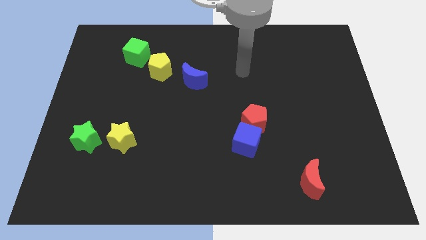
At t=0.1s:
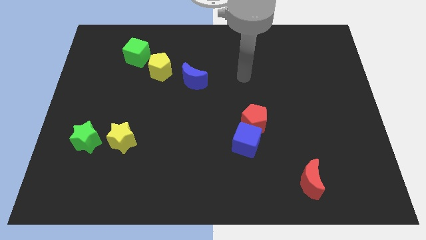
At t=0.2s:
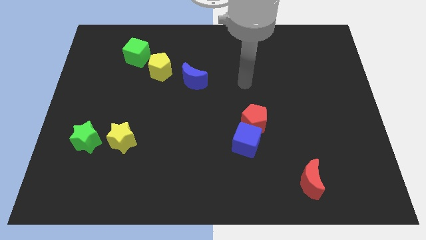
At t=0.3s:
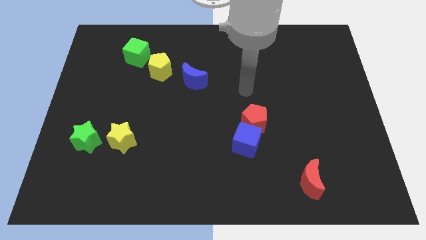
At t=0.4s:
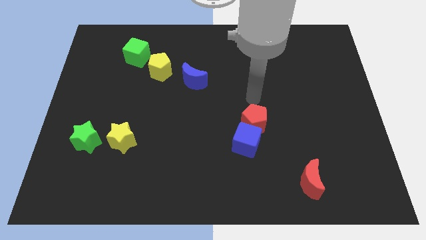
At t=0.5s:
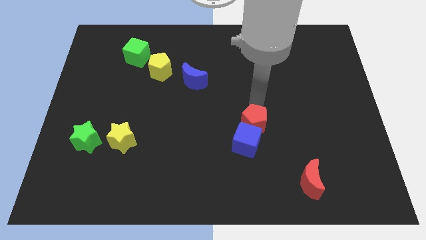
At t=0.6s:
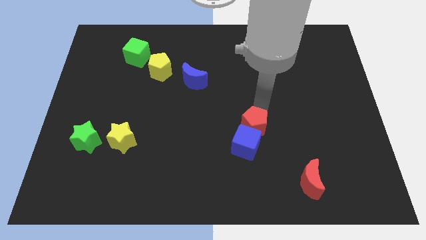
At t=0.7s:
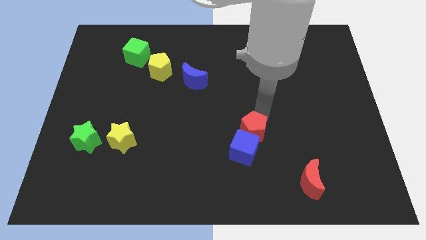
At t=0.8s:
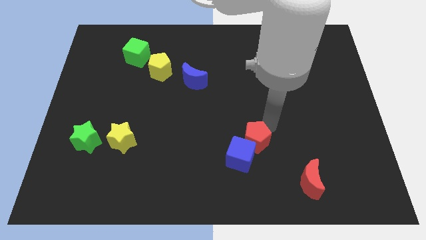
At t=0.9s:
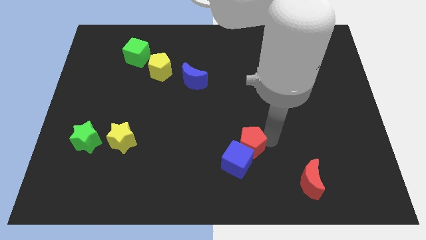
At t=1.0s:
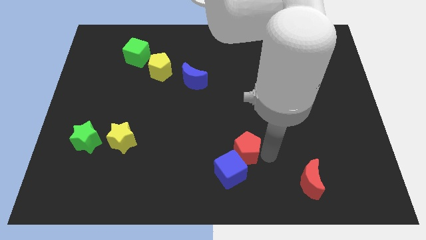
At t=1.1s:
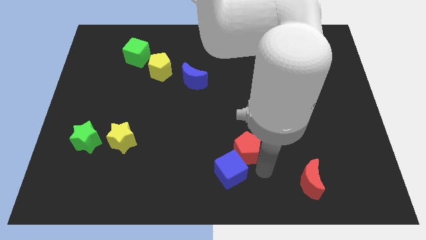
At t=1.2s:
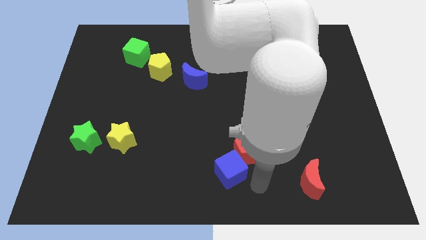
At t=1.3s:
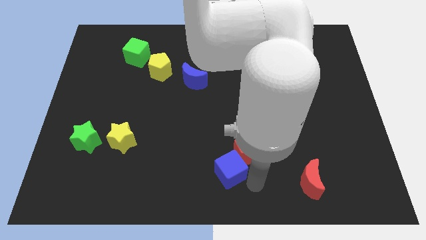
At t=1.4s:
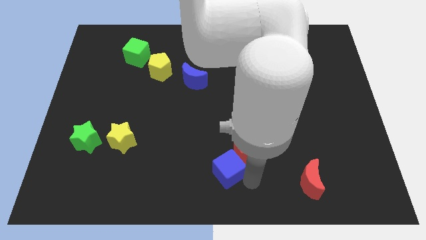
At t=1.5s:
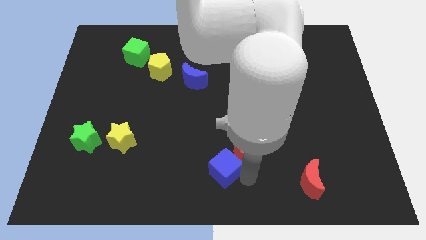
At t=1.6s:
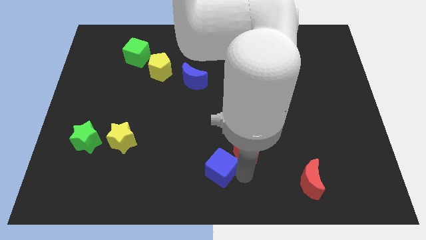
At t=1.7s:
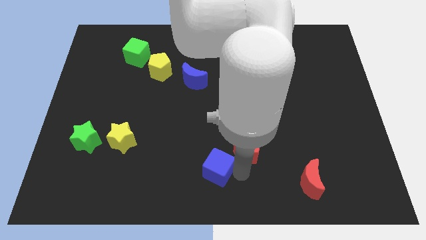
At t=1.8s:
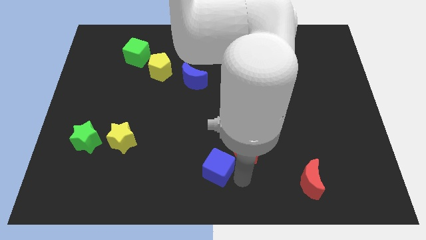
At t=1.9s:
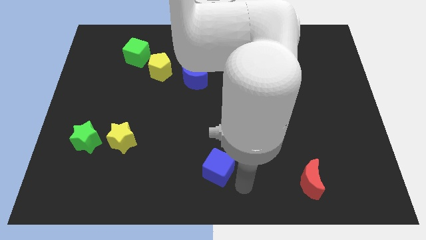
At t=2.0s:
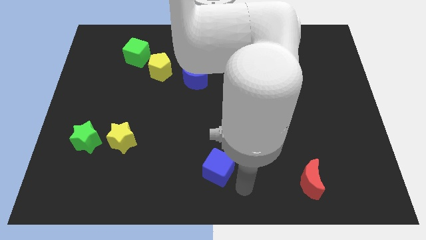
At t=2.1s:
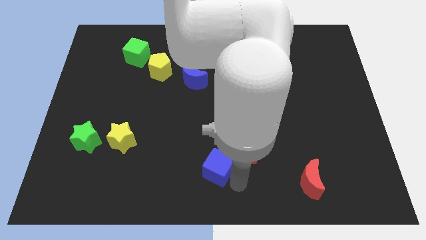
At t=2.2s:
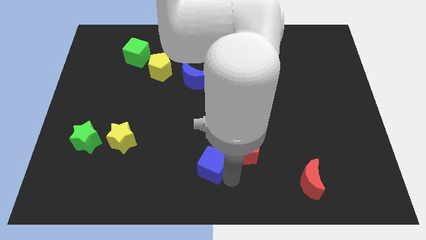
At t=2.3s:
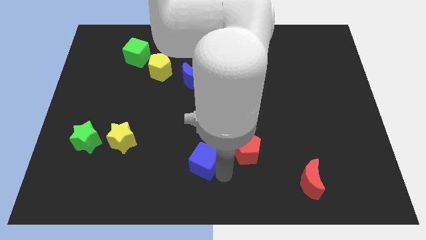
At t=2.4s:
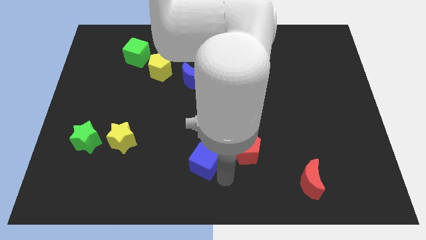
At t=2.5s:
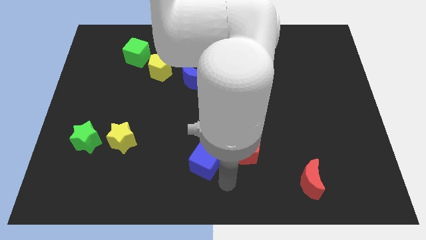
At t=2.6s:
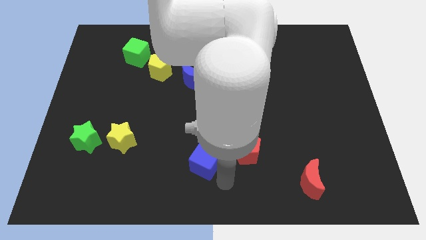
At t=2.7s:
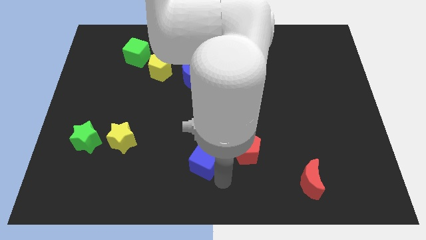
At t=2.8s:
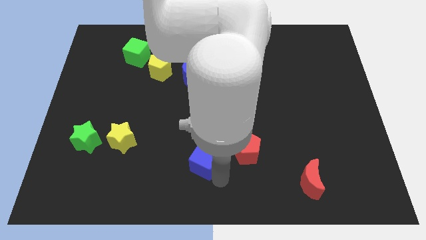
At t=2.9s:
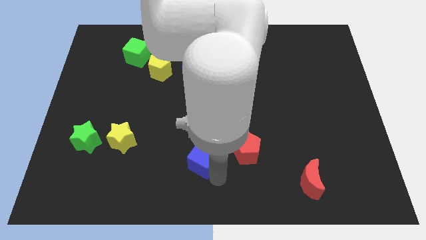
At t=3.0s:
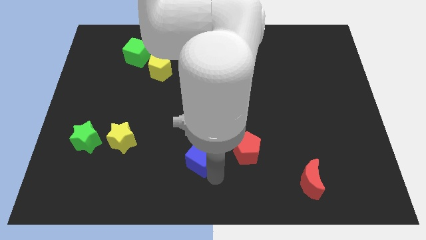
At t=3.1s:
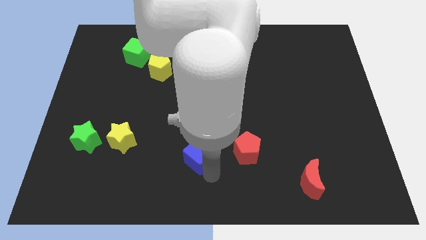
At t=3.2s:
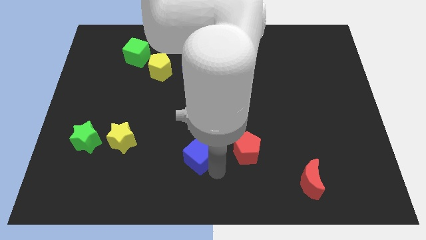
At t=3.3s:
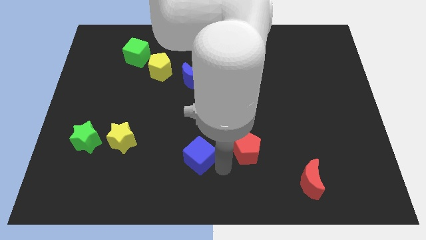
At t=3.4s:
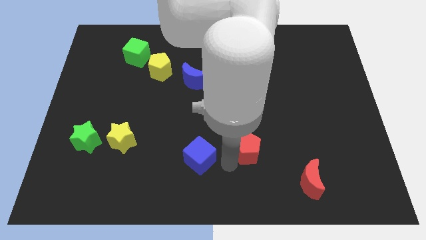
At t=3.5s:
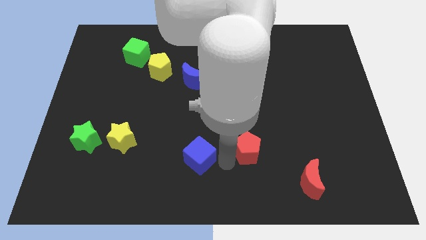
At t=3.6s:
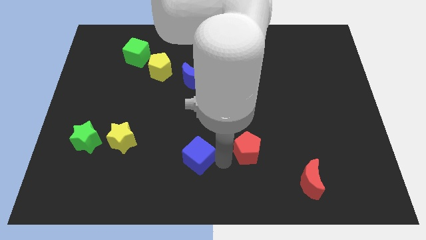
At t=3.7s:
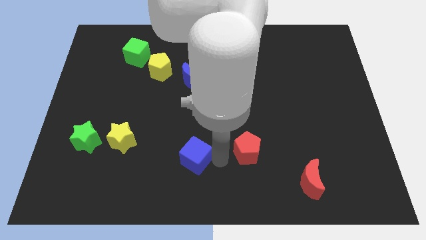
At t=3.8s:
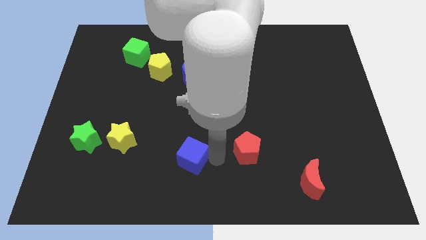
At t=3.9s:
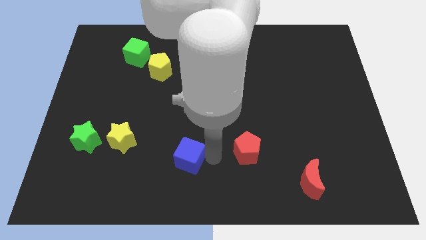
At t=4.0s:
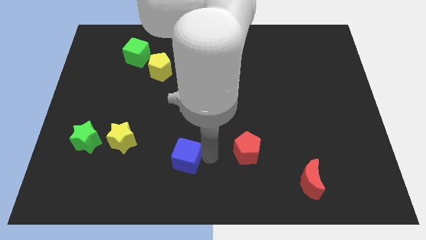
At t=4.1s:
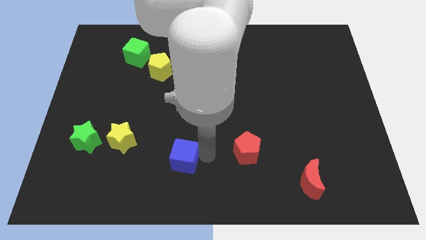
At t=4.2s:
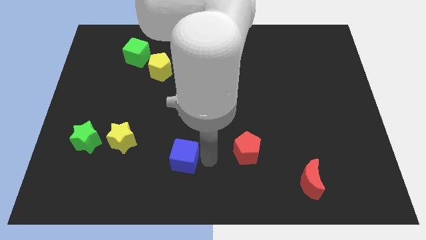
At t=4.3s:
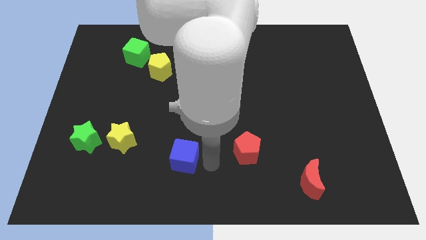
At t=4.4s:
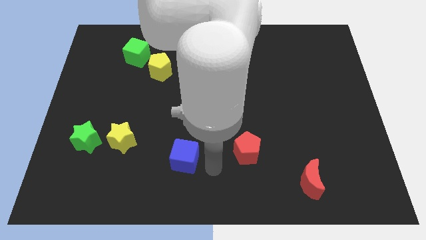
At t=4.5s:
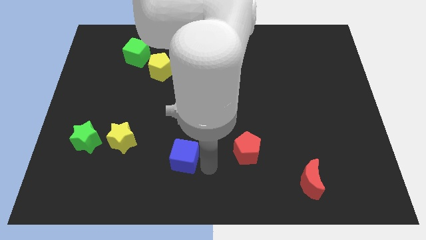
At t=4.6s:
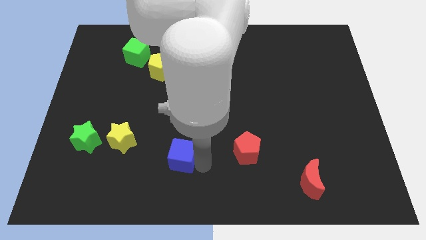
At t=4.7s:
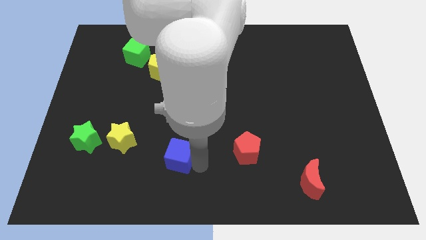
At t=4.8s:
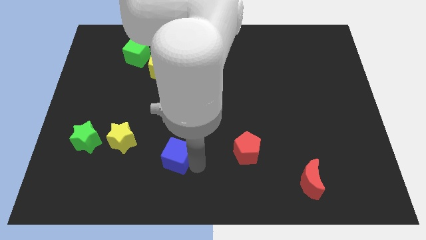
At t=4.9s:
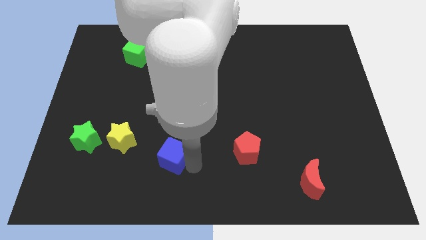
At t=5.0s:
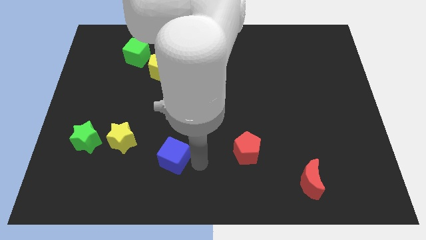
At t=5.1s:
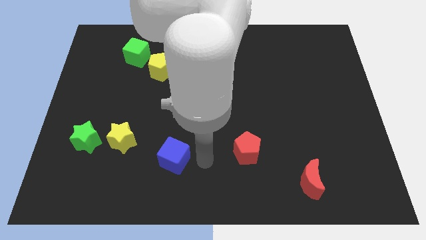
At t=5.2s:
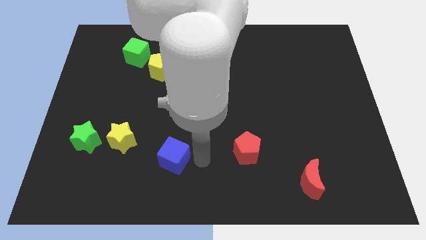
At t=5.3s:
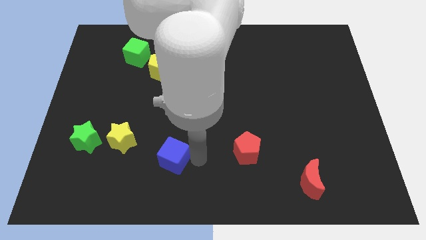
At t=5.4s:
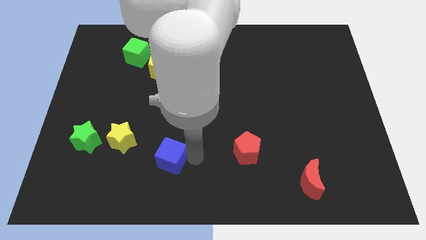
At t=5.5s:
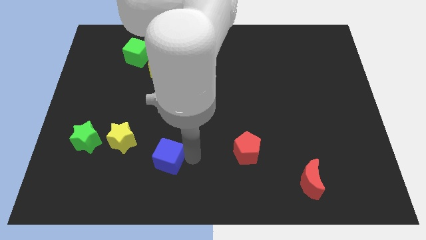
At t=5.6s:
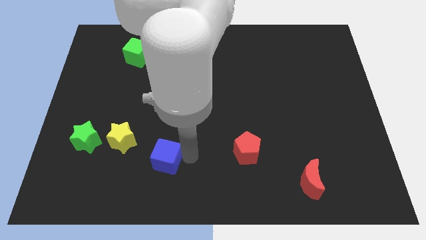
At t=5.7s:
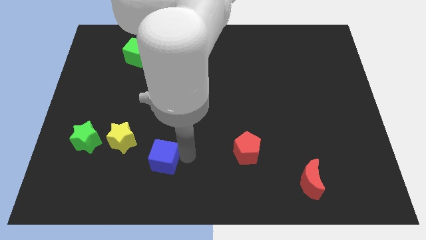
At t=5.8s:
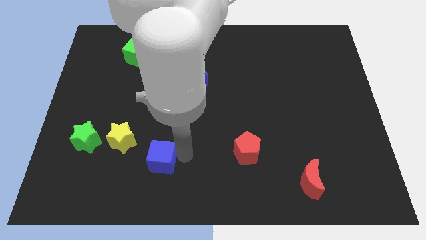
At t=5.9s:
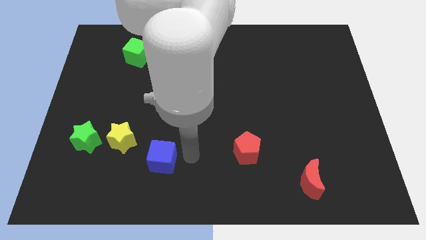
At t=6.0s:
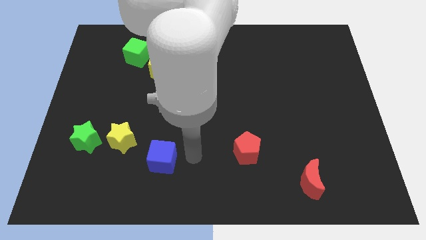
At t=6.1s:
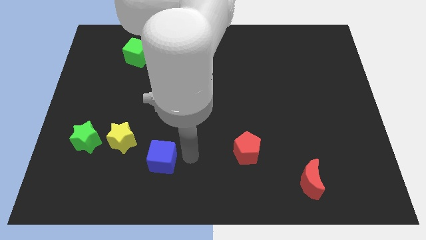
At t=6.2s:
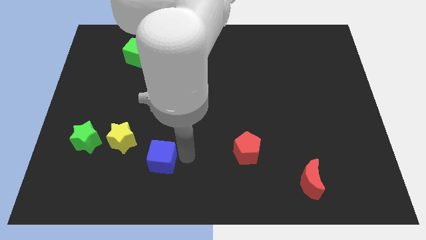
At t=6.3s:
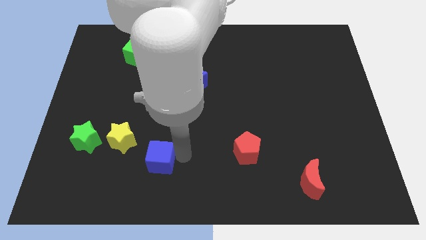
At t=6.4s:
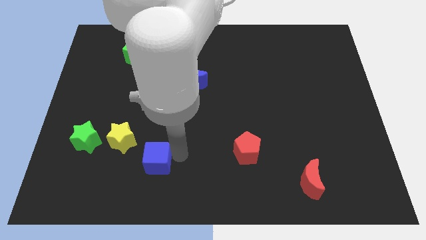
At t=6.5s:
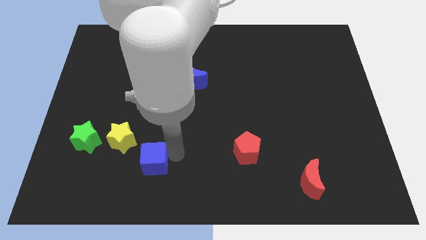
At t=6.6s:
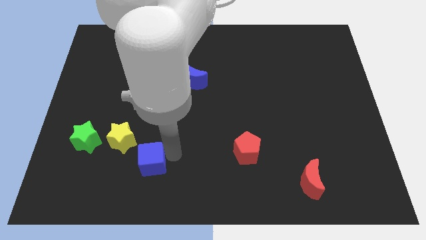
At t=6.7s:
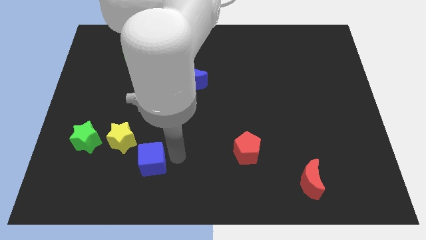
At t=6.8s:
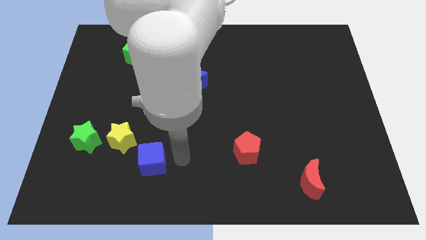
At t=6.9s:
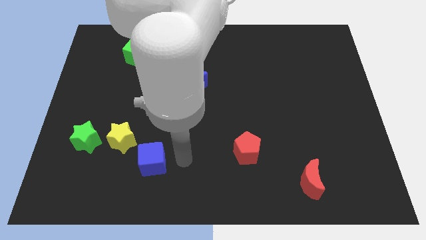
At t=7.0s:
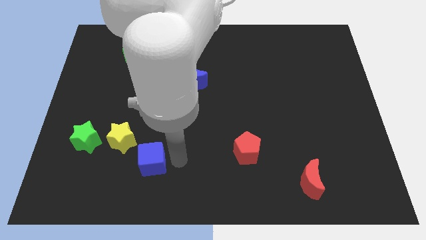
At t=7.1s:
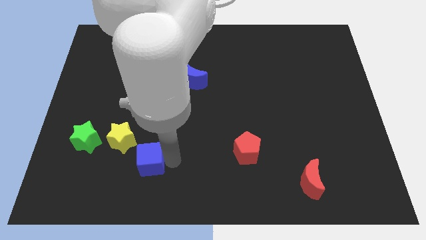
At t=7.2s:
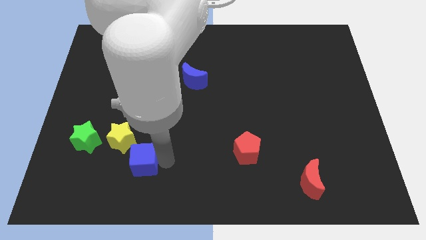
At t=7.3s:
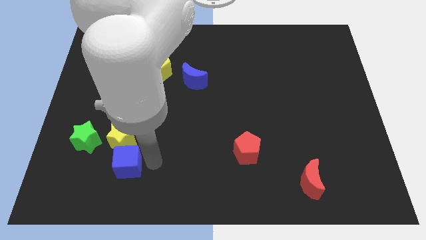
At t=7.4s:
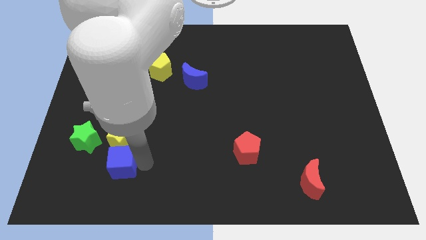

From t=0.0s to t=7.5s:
put the blue cube to the bottom left of the yellow star
